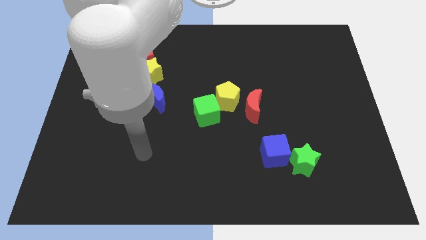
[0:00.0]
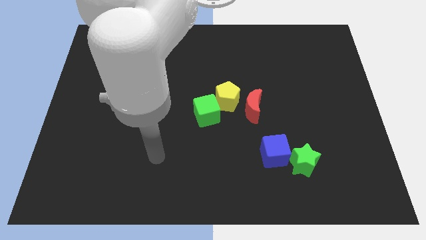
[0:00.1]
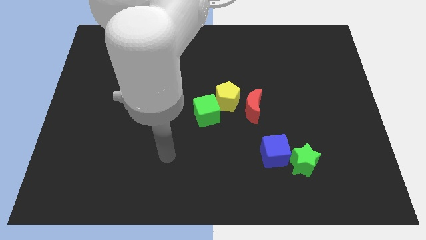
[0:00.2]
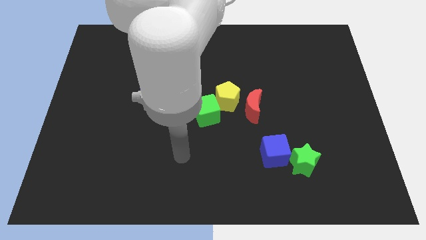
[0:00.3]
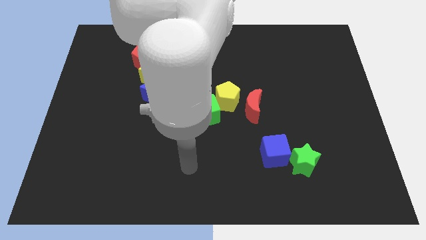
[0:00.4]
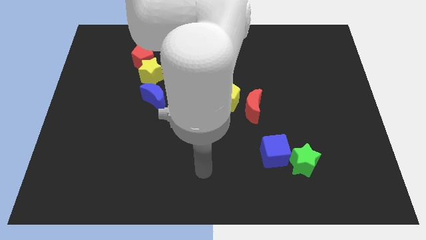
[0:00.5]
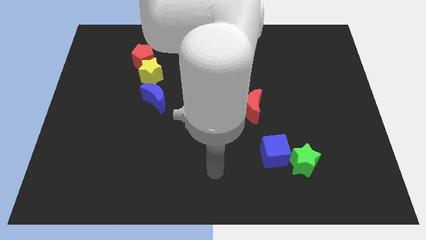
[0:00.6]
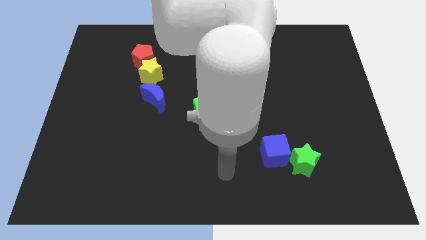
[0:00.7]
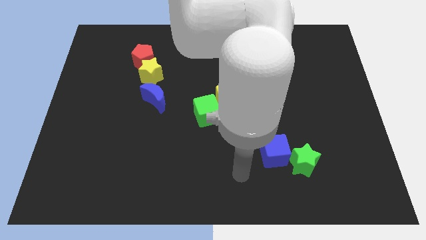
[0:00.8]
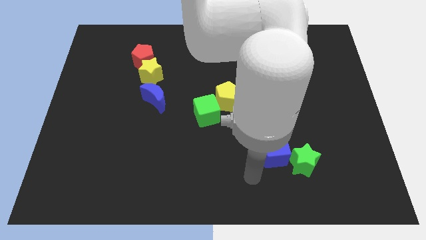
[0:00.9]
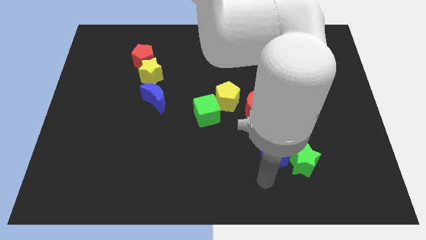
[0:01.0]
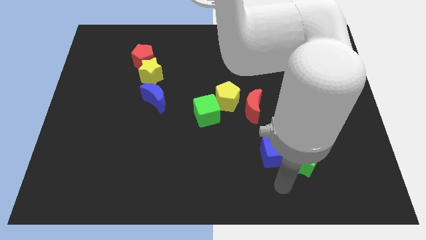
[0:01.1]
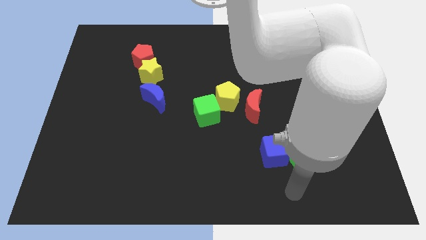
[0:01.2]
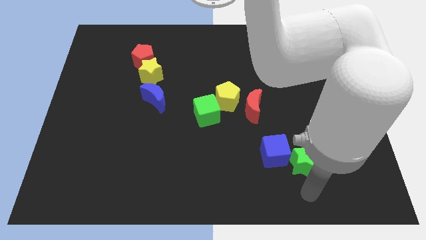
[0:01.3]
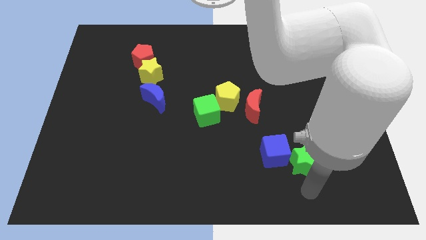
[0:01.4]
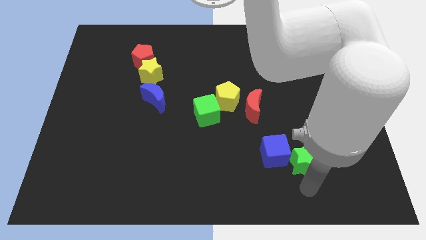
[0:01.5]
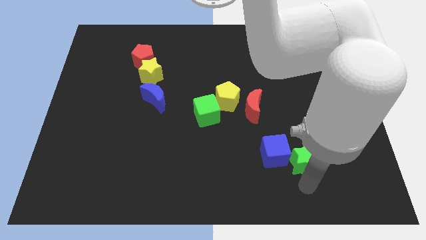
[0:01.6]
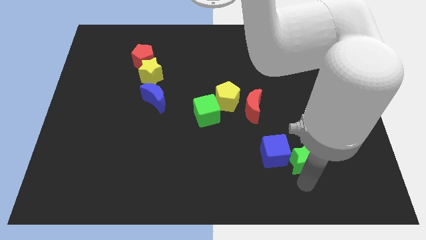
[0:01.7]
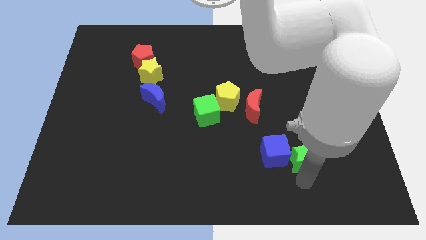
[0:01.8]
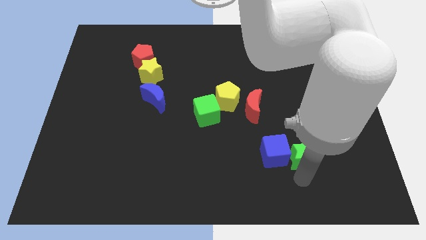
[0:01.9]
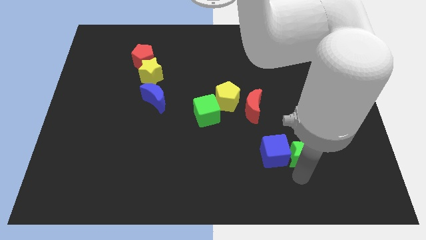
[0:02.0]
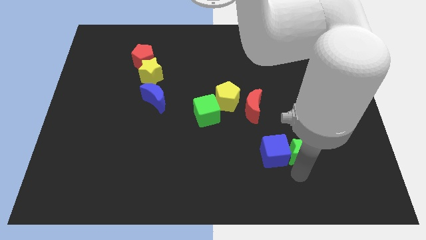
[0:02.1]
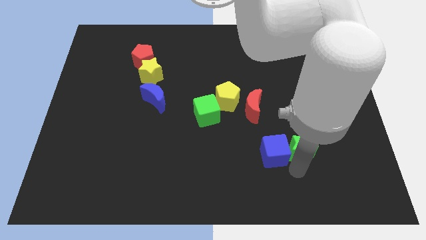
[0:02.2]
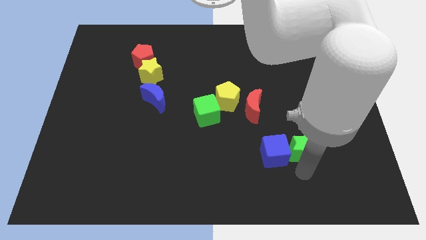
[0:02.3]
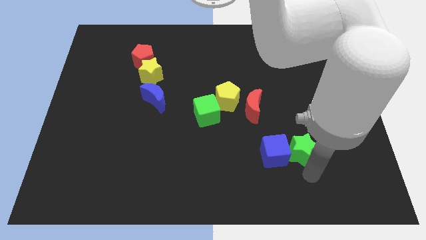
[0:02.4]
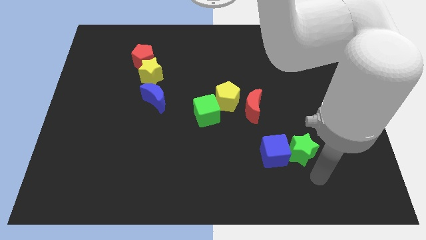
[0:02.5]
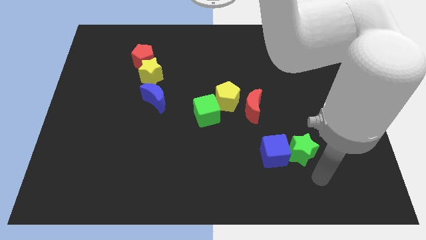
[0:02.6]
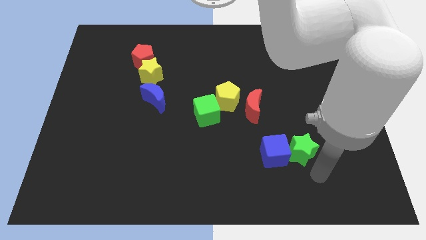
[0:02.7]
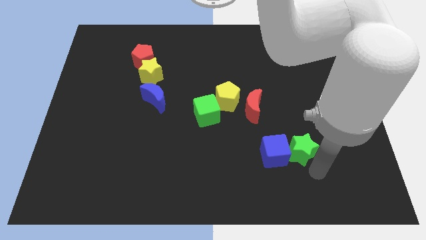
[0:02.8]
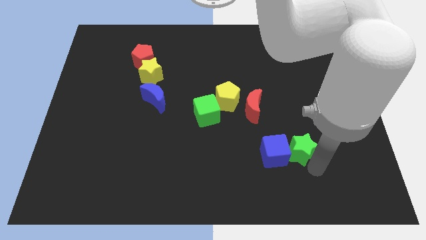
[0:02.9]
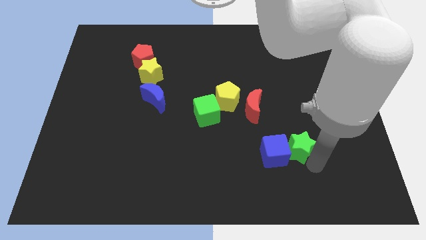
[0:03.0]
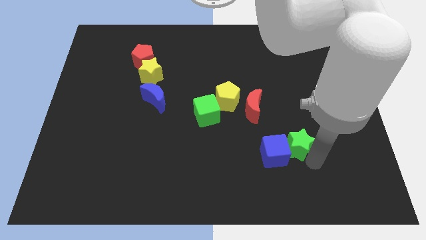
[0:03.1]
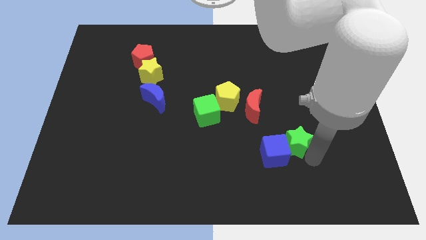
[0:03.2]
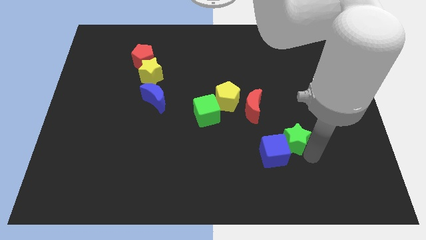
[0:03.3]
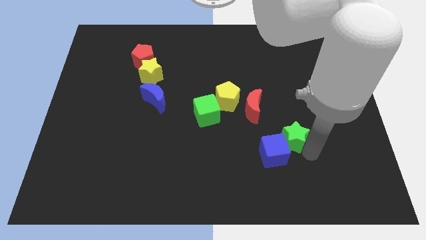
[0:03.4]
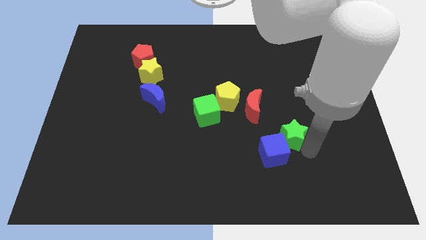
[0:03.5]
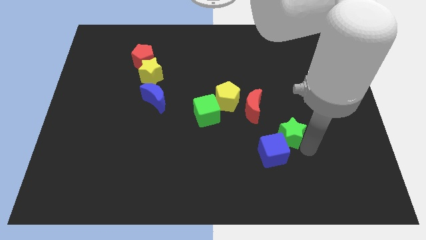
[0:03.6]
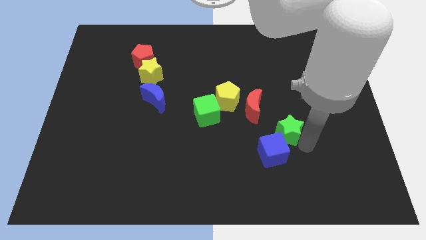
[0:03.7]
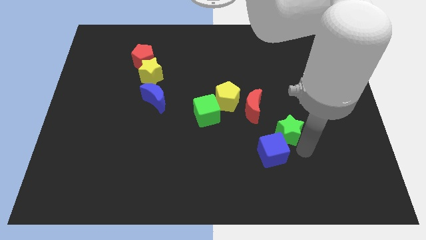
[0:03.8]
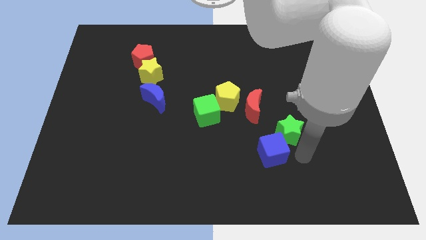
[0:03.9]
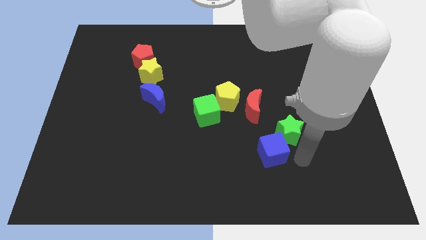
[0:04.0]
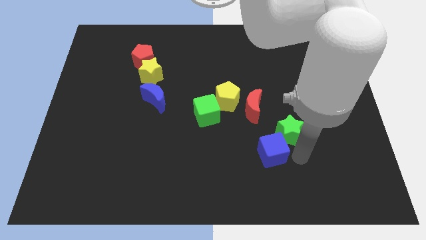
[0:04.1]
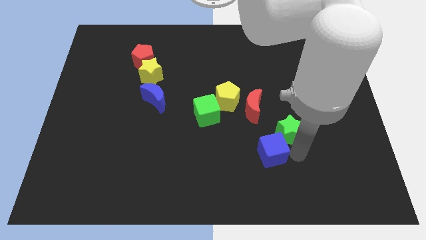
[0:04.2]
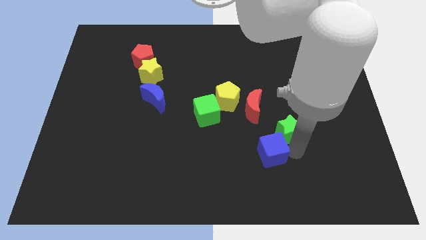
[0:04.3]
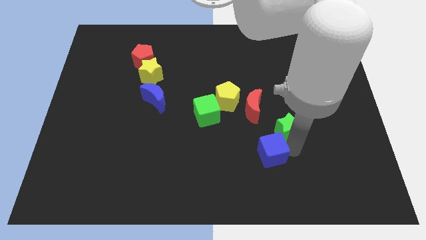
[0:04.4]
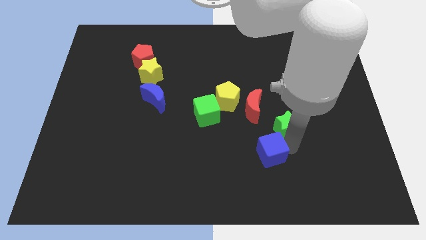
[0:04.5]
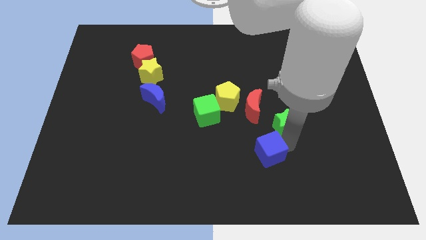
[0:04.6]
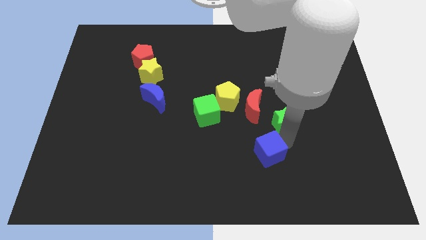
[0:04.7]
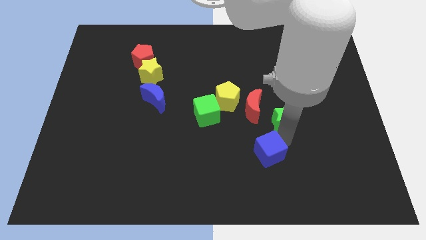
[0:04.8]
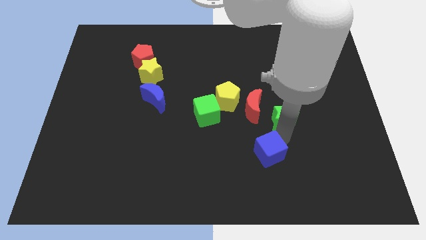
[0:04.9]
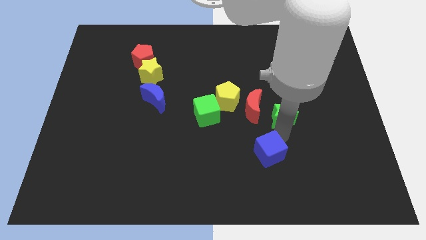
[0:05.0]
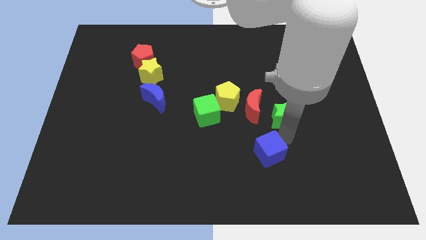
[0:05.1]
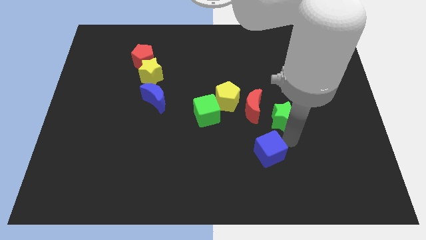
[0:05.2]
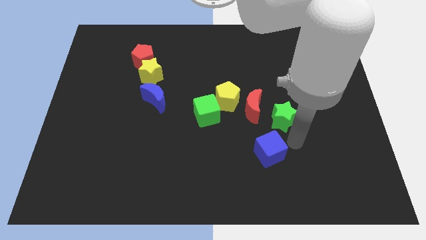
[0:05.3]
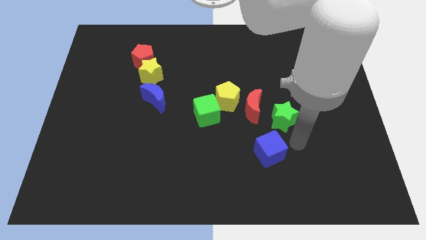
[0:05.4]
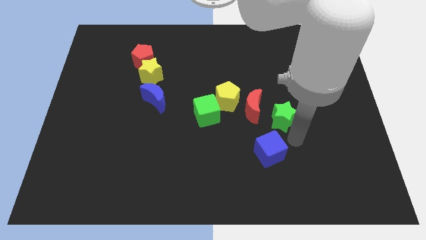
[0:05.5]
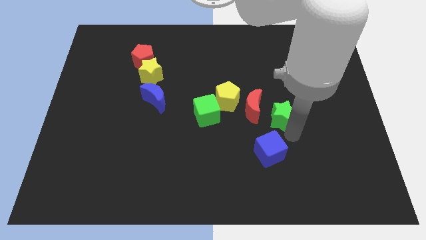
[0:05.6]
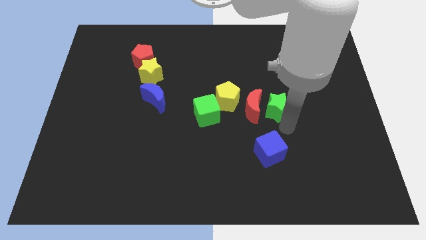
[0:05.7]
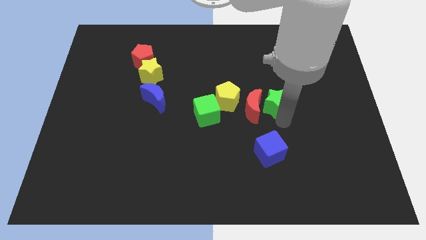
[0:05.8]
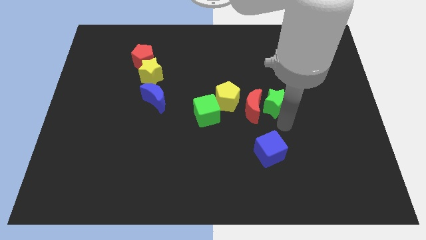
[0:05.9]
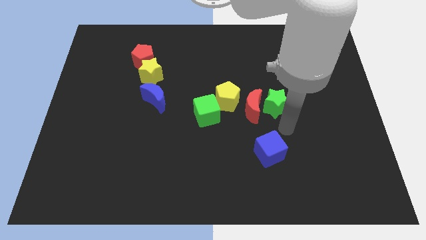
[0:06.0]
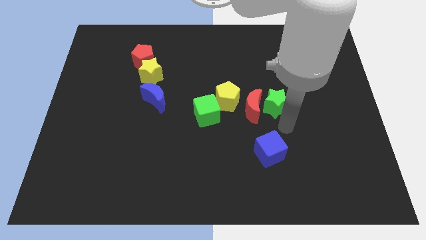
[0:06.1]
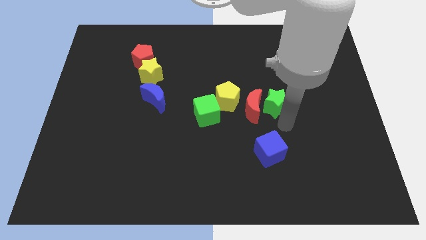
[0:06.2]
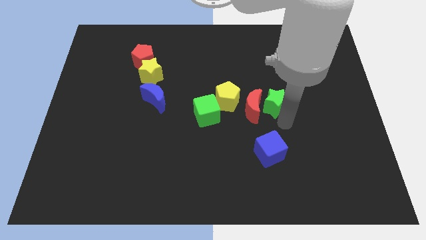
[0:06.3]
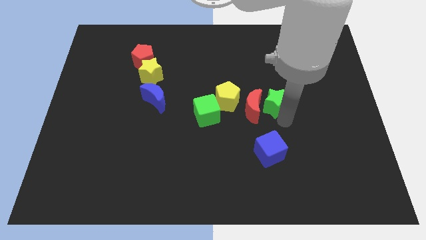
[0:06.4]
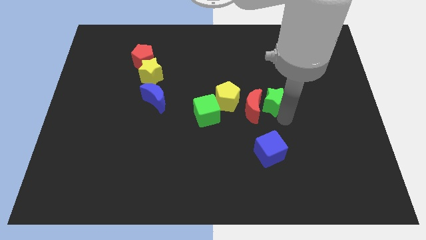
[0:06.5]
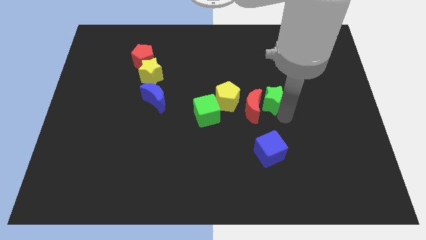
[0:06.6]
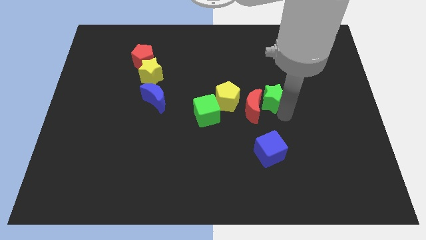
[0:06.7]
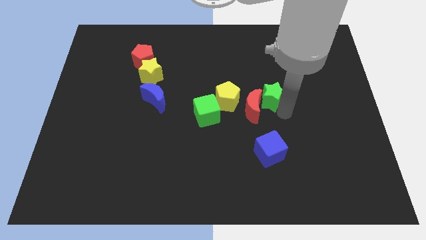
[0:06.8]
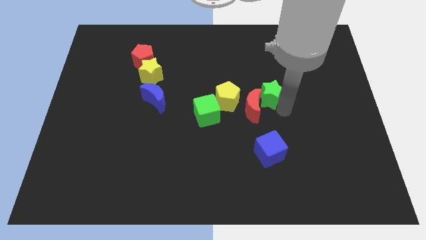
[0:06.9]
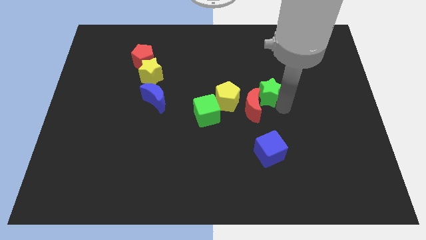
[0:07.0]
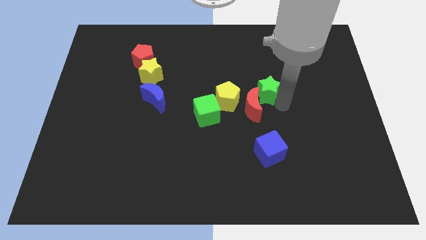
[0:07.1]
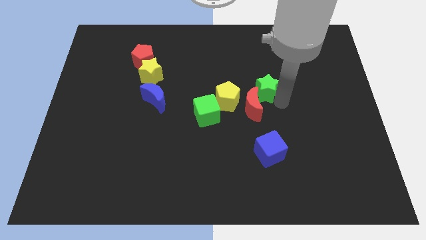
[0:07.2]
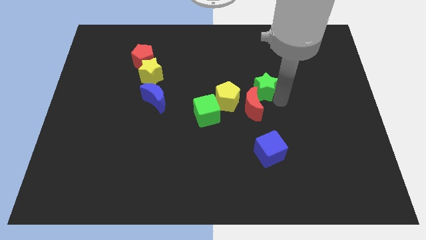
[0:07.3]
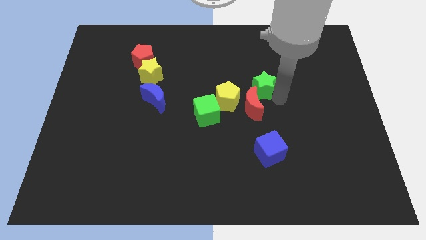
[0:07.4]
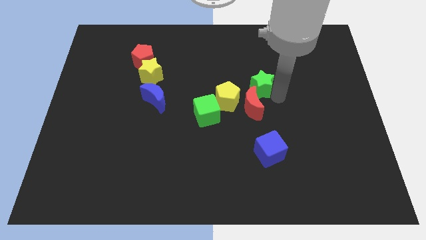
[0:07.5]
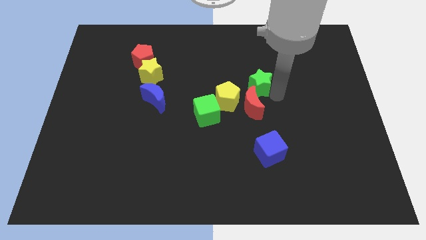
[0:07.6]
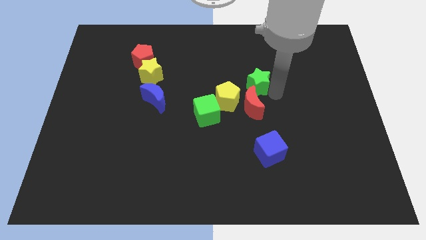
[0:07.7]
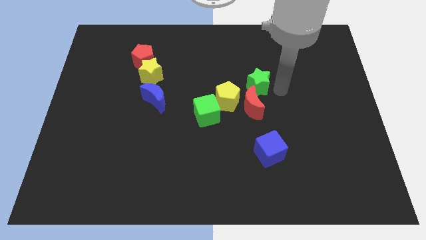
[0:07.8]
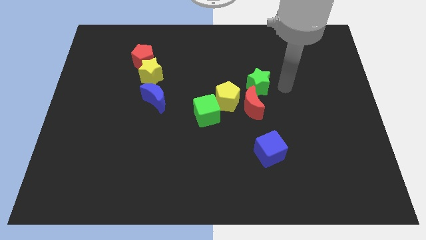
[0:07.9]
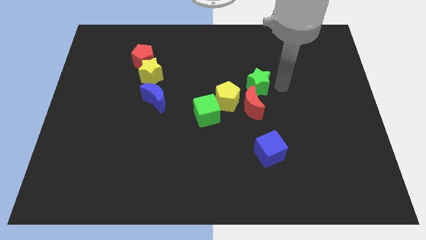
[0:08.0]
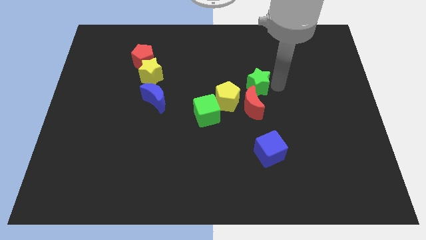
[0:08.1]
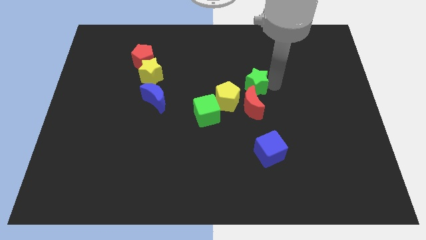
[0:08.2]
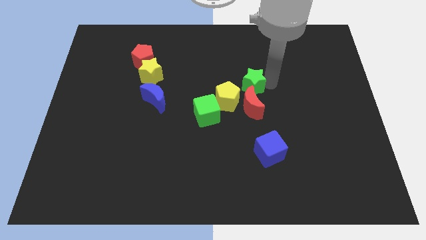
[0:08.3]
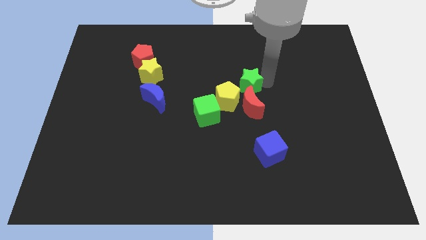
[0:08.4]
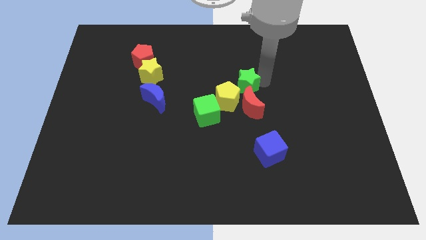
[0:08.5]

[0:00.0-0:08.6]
push the green star diagonally upwards and left

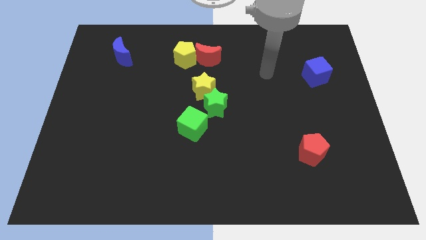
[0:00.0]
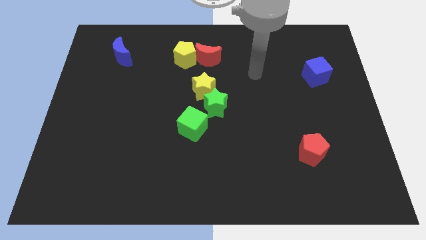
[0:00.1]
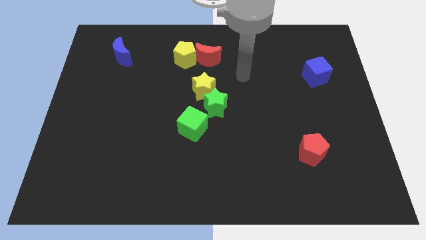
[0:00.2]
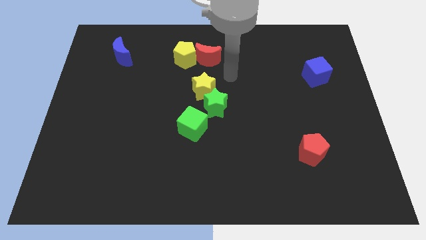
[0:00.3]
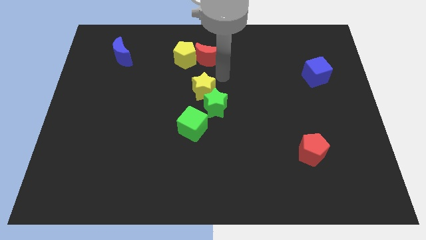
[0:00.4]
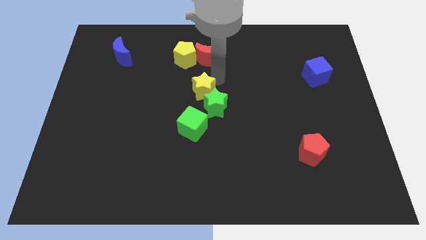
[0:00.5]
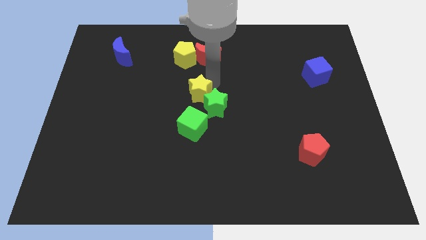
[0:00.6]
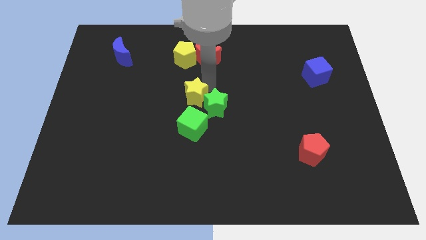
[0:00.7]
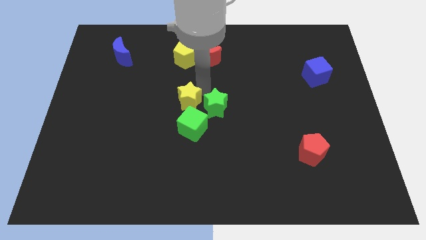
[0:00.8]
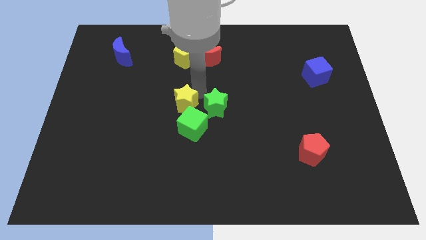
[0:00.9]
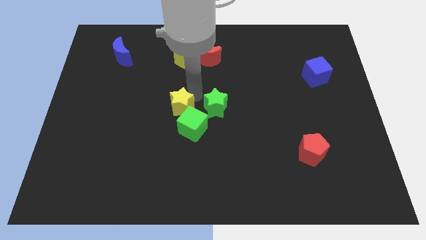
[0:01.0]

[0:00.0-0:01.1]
move the yellow star somewhat diagonally down and to the left
